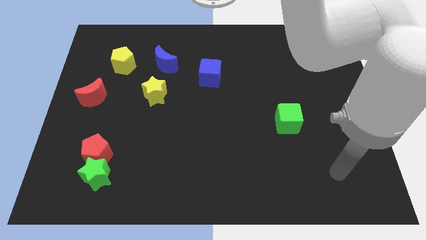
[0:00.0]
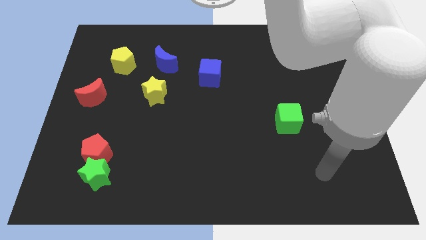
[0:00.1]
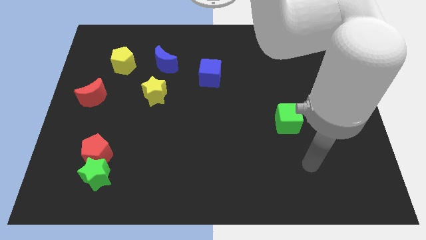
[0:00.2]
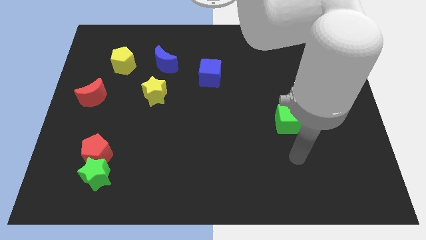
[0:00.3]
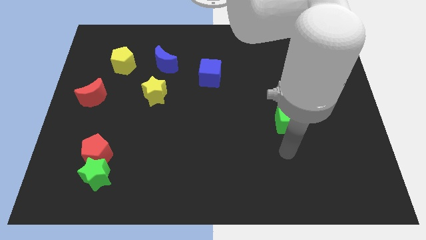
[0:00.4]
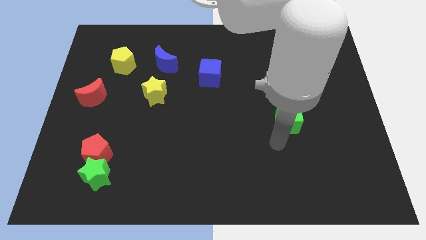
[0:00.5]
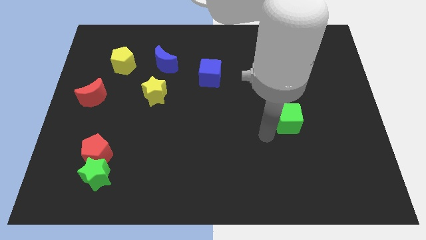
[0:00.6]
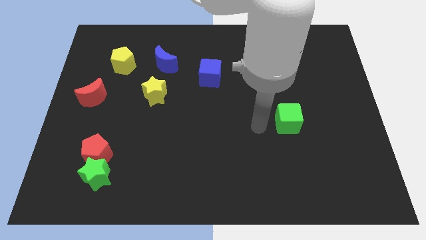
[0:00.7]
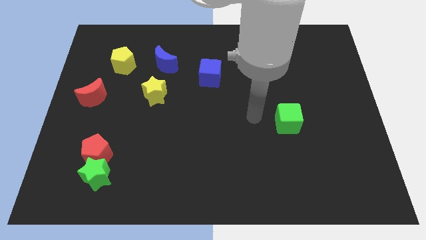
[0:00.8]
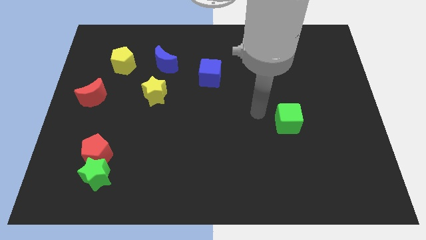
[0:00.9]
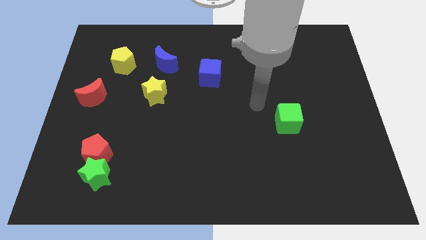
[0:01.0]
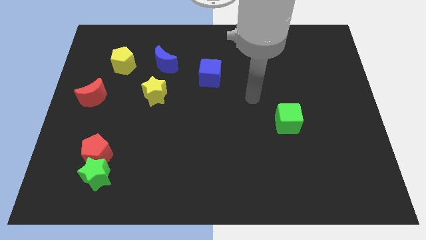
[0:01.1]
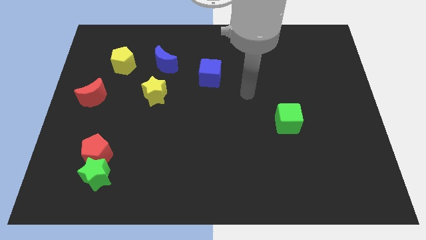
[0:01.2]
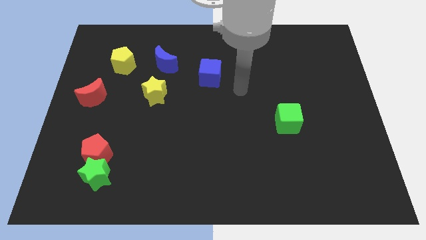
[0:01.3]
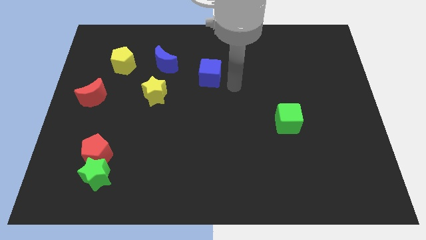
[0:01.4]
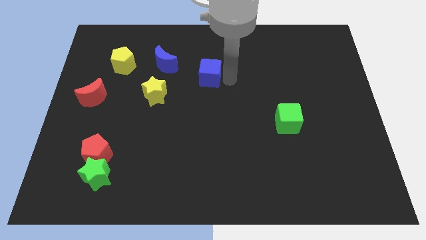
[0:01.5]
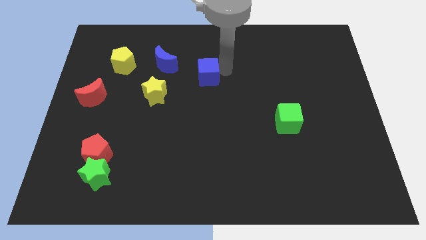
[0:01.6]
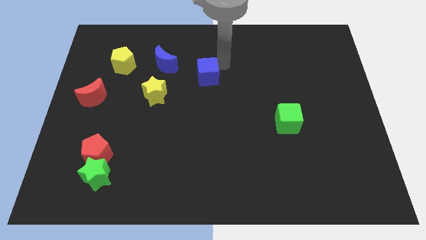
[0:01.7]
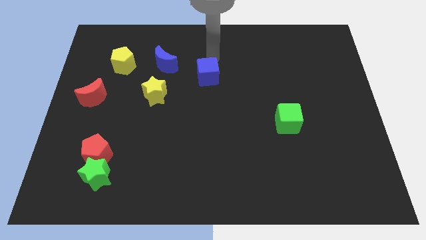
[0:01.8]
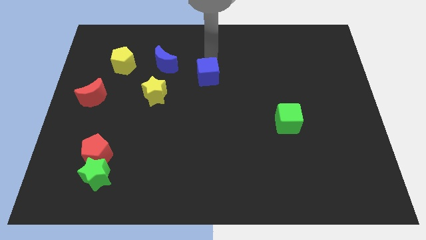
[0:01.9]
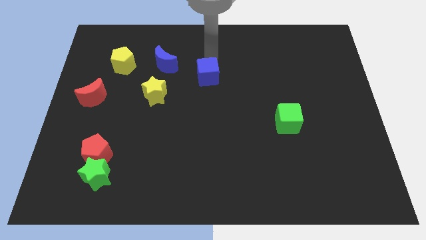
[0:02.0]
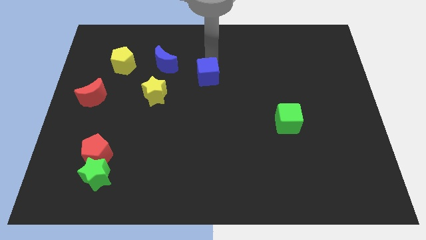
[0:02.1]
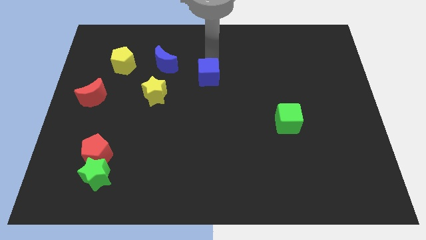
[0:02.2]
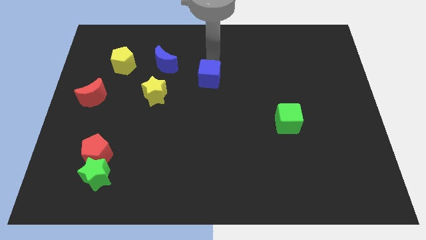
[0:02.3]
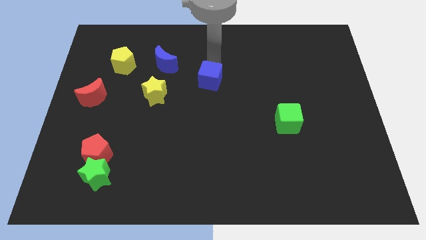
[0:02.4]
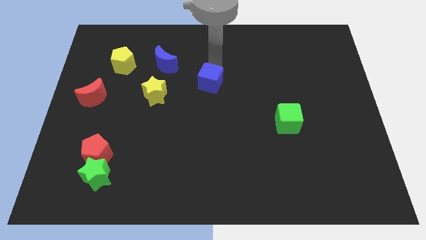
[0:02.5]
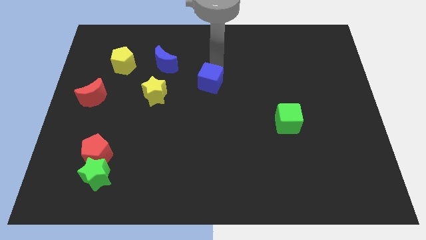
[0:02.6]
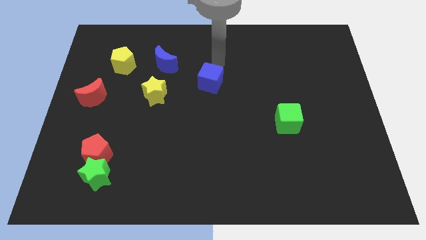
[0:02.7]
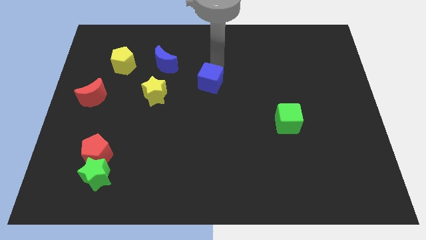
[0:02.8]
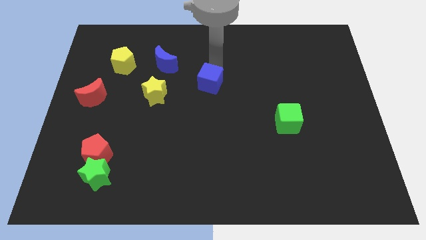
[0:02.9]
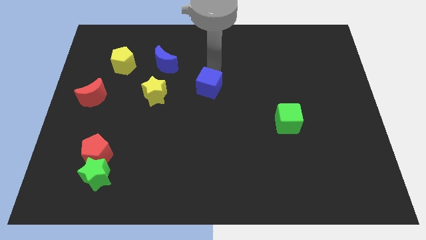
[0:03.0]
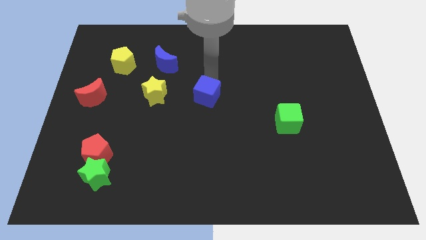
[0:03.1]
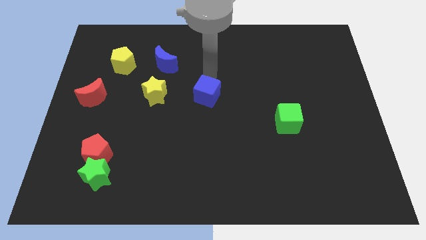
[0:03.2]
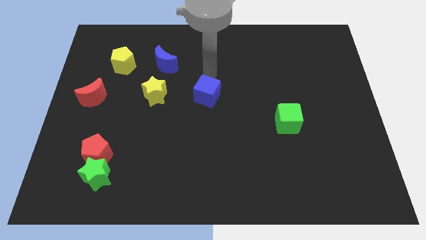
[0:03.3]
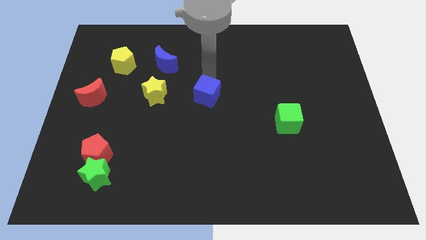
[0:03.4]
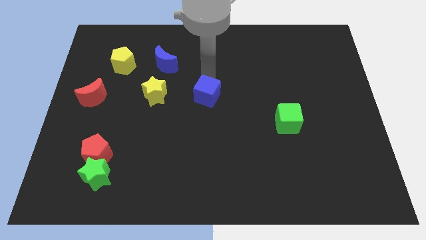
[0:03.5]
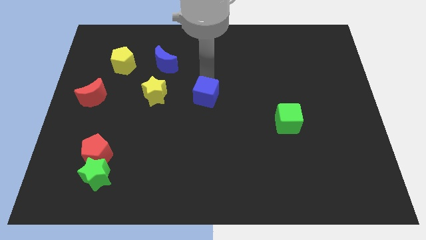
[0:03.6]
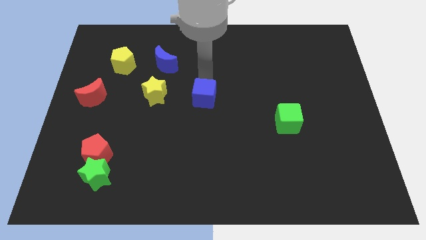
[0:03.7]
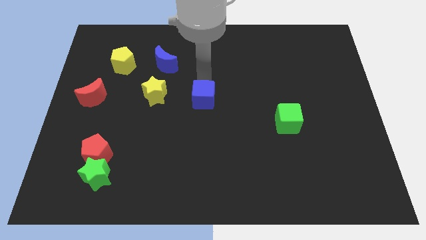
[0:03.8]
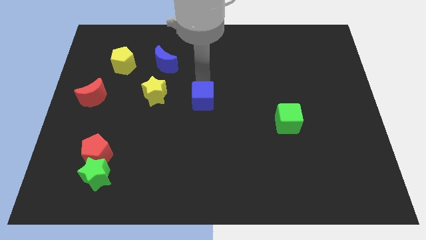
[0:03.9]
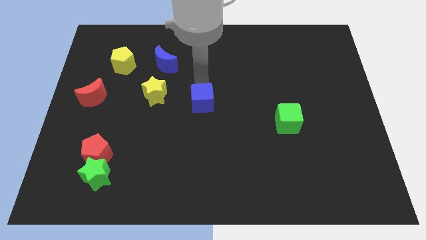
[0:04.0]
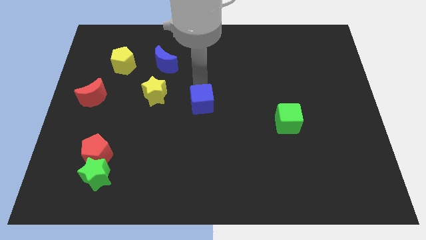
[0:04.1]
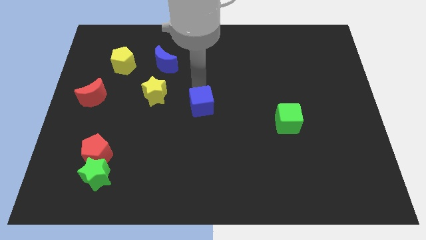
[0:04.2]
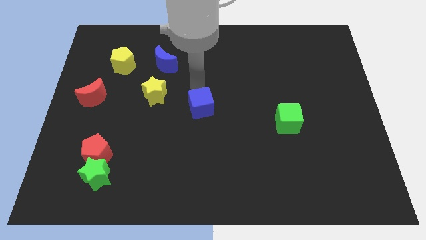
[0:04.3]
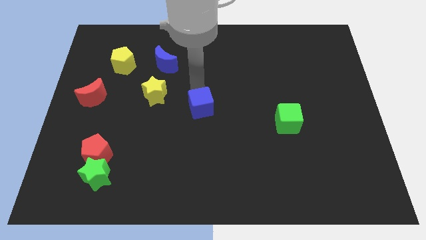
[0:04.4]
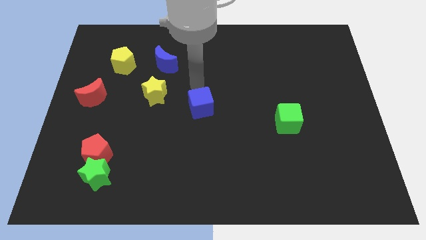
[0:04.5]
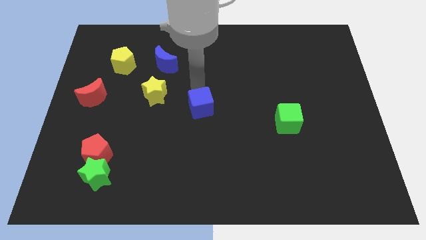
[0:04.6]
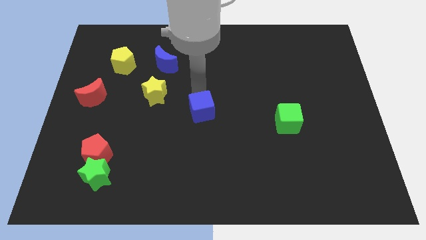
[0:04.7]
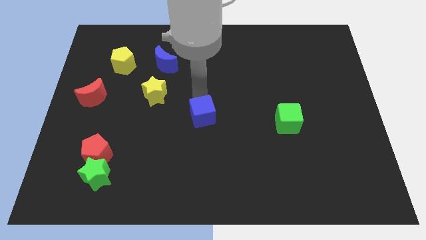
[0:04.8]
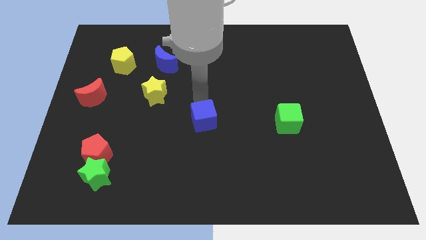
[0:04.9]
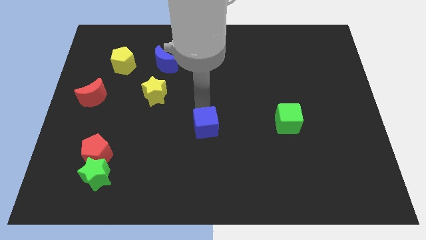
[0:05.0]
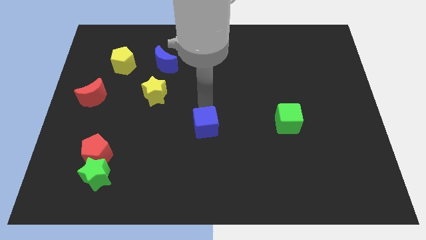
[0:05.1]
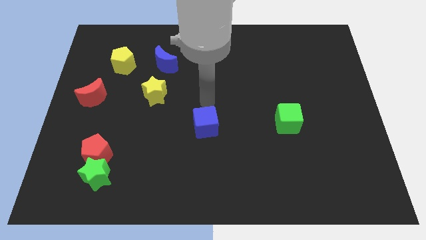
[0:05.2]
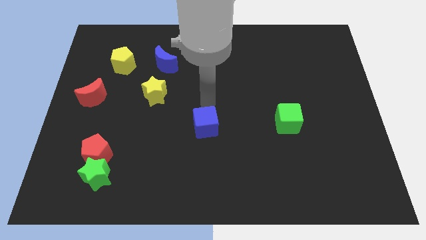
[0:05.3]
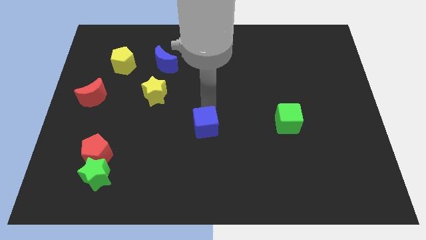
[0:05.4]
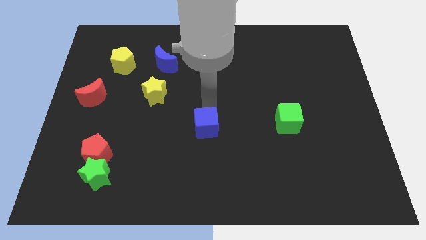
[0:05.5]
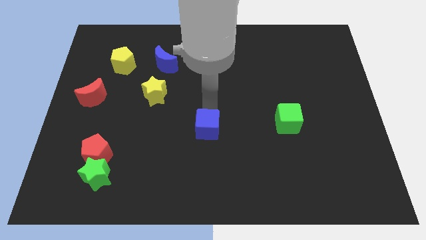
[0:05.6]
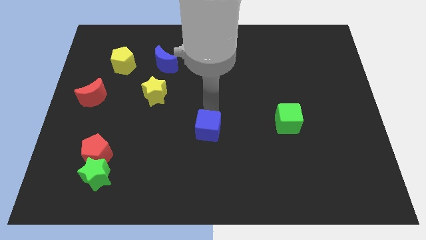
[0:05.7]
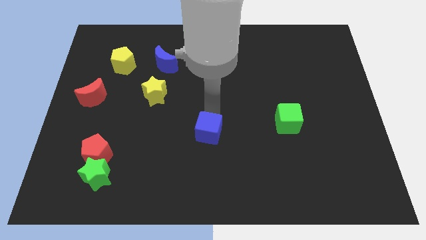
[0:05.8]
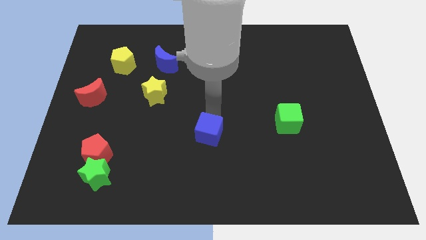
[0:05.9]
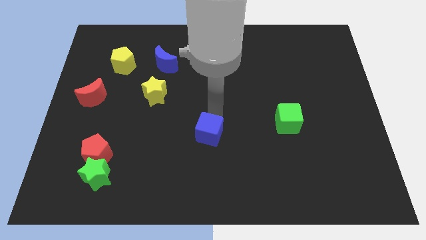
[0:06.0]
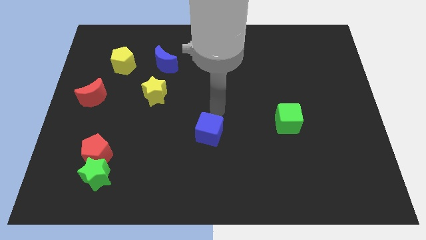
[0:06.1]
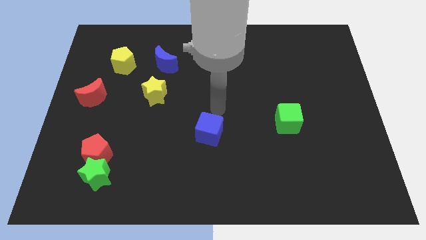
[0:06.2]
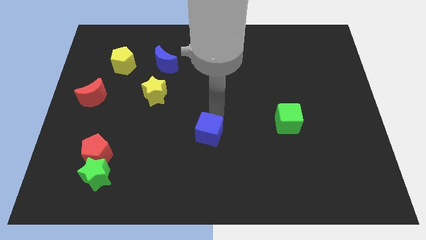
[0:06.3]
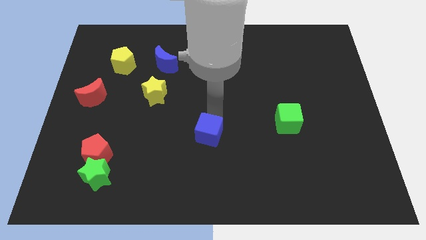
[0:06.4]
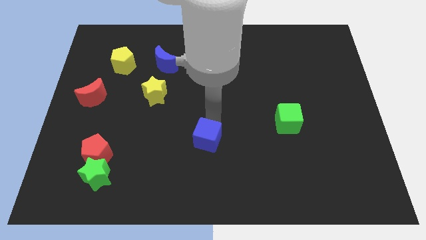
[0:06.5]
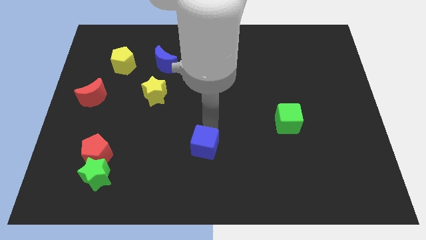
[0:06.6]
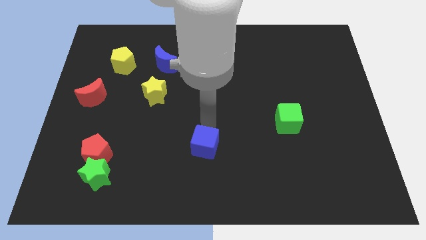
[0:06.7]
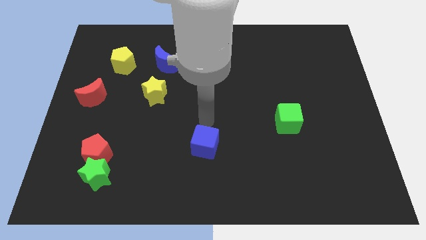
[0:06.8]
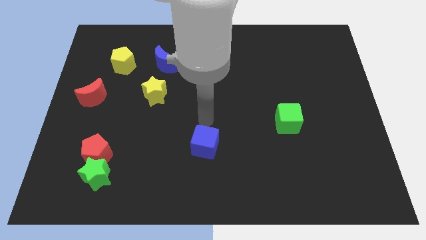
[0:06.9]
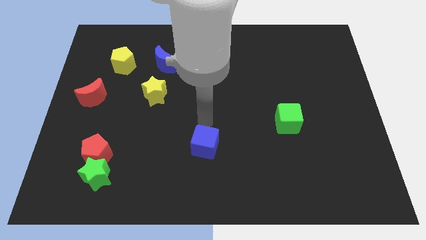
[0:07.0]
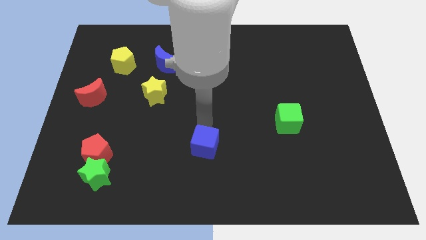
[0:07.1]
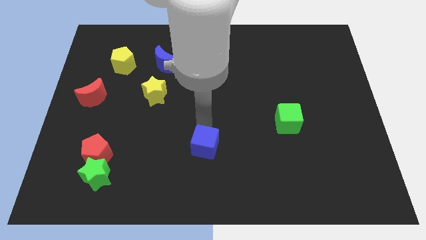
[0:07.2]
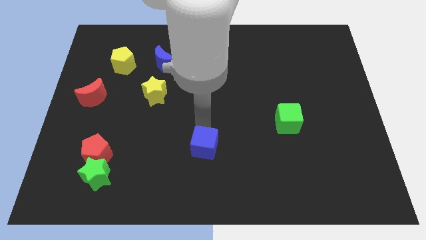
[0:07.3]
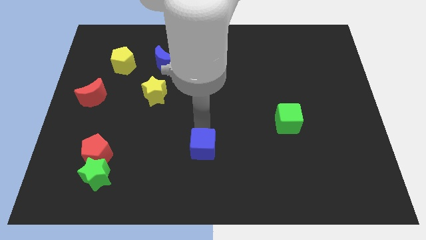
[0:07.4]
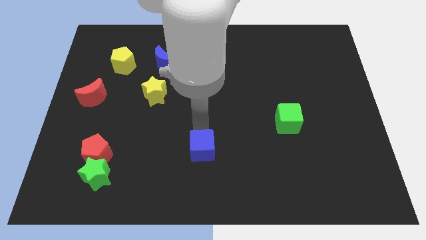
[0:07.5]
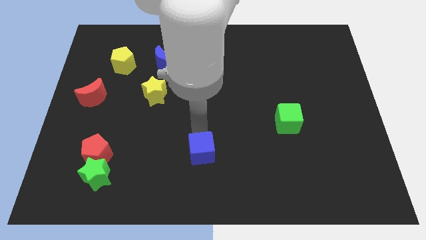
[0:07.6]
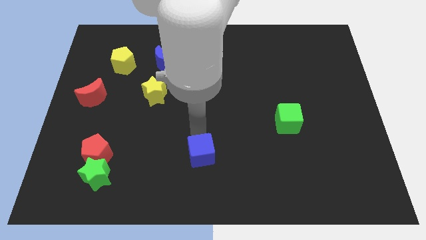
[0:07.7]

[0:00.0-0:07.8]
move the blue cube to the bottom
